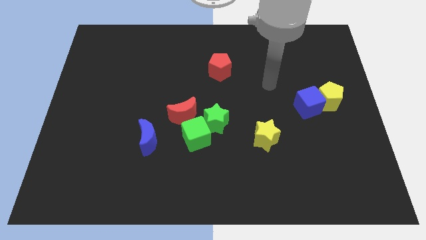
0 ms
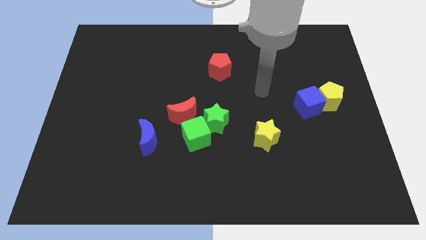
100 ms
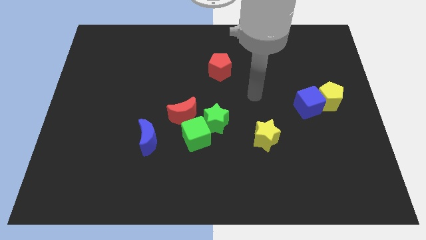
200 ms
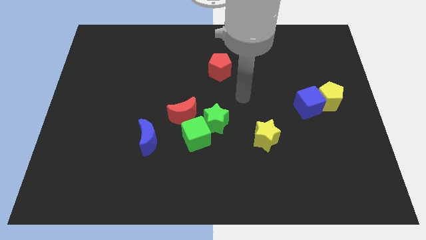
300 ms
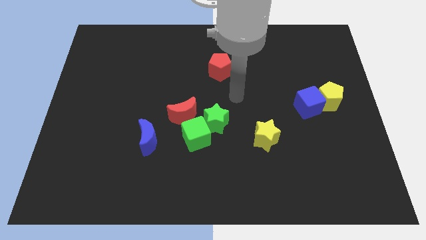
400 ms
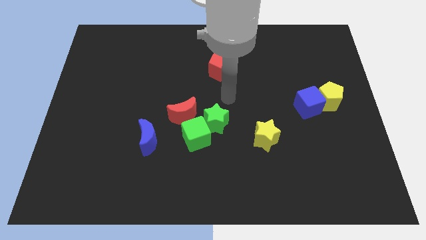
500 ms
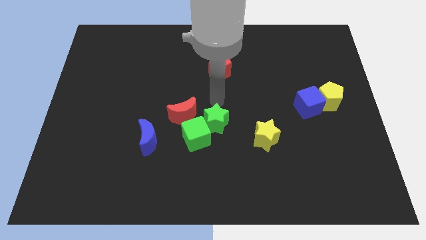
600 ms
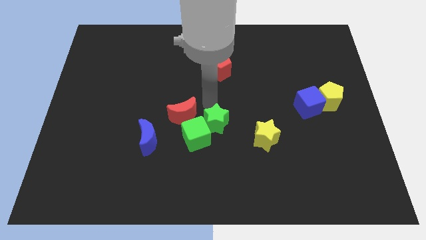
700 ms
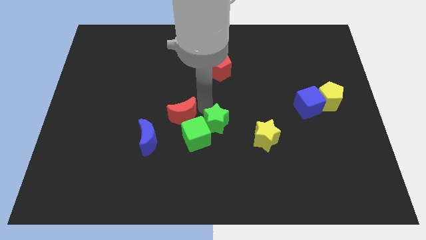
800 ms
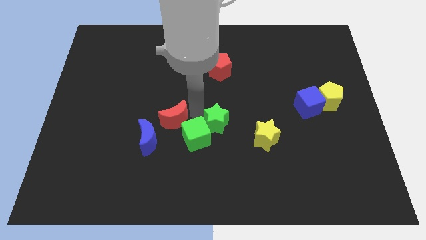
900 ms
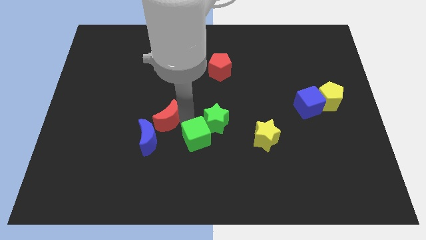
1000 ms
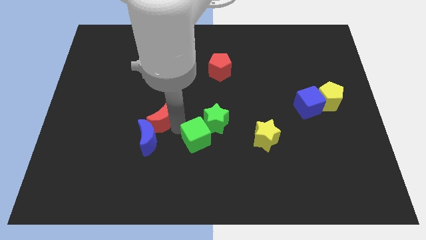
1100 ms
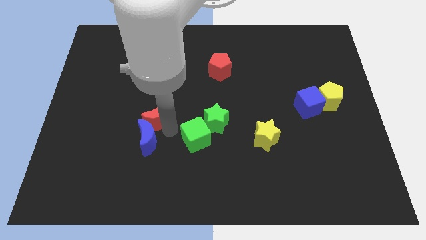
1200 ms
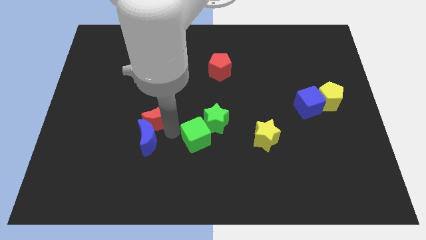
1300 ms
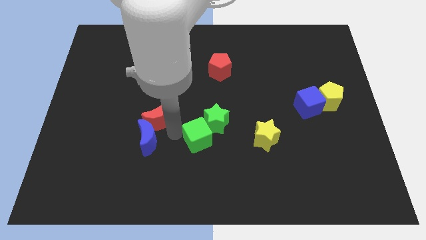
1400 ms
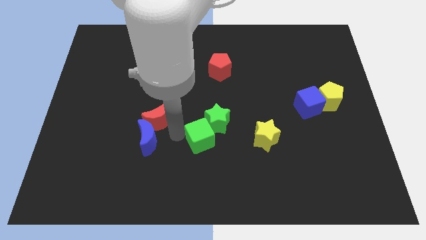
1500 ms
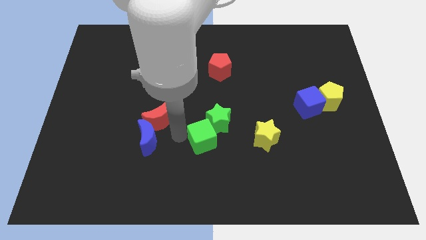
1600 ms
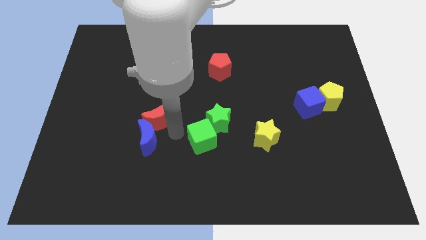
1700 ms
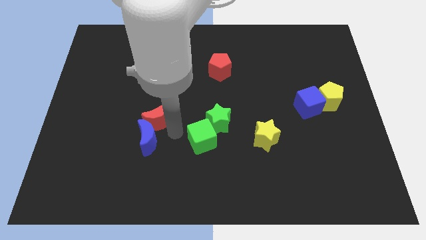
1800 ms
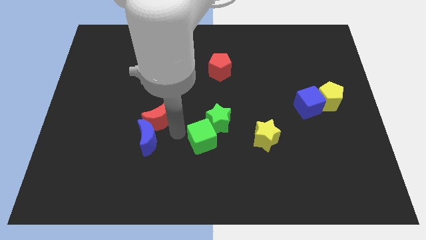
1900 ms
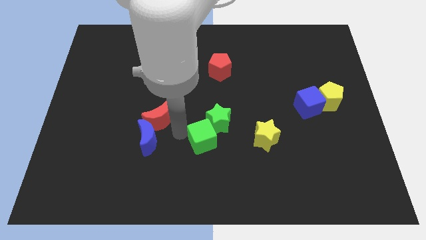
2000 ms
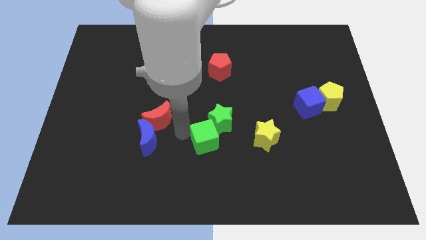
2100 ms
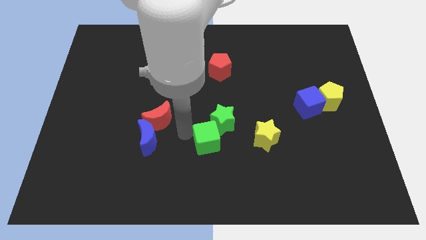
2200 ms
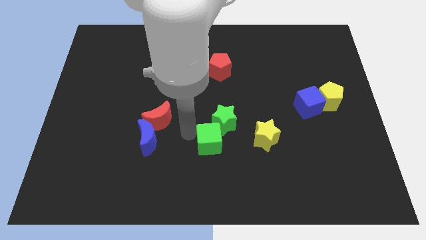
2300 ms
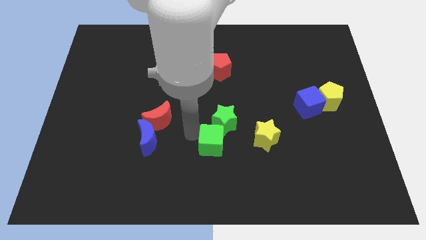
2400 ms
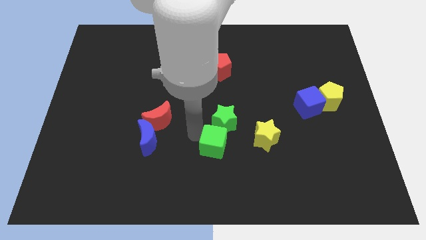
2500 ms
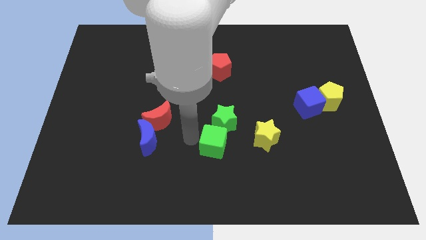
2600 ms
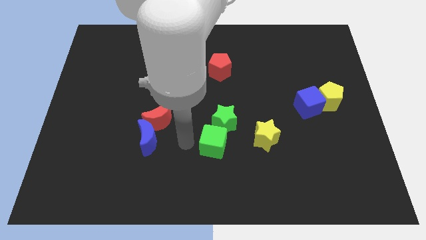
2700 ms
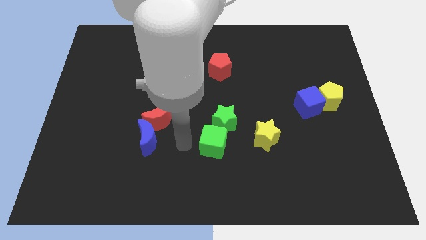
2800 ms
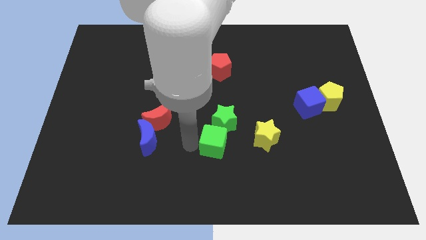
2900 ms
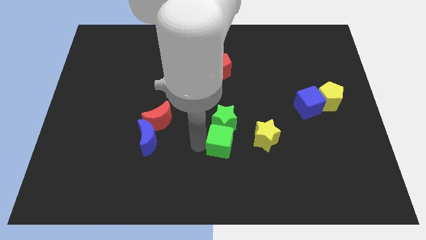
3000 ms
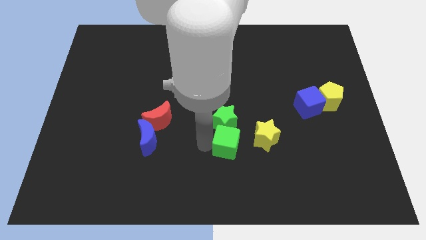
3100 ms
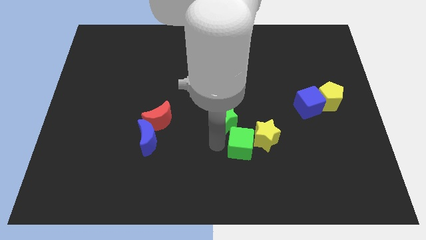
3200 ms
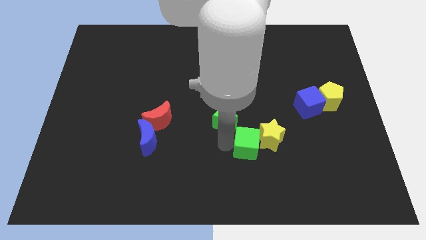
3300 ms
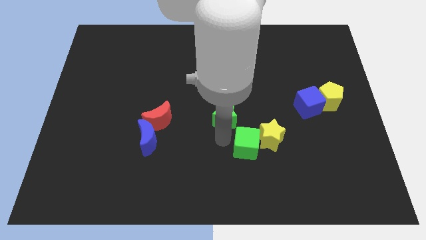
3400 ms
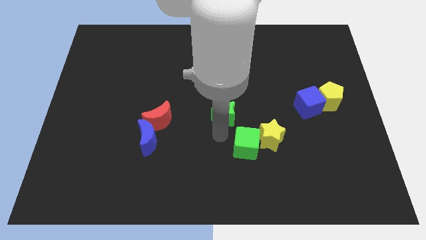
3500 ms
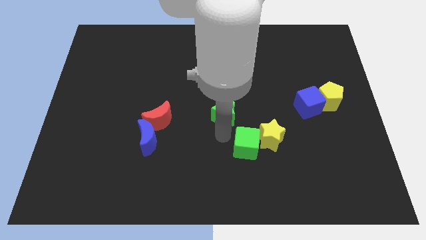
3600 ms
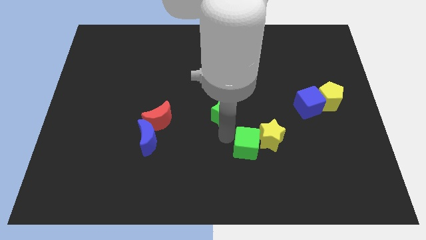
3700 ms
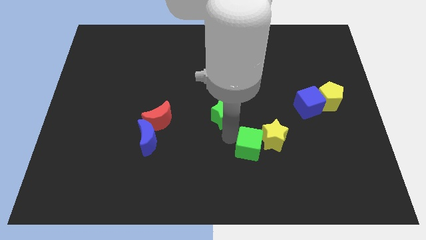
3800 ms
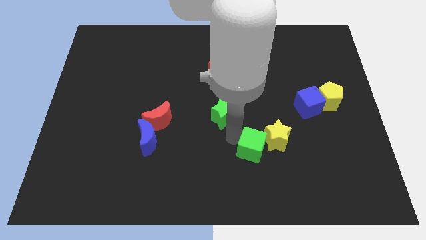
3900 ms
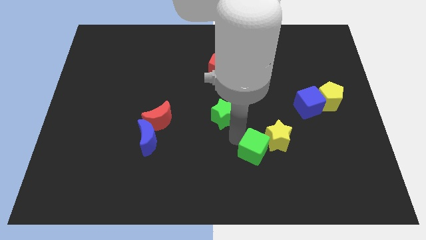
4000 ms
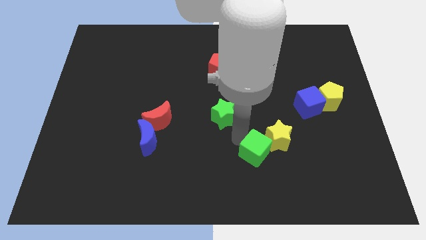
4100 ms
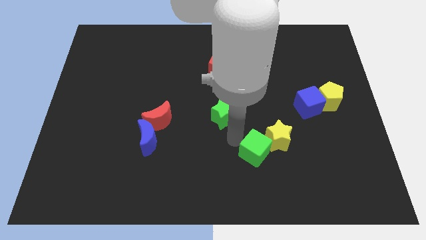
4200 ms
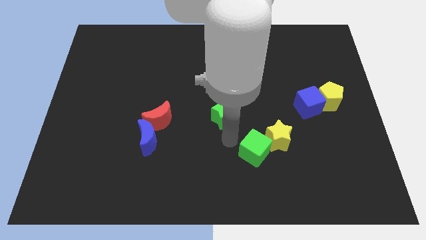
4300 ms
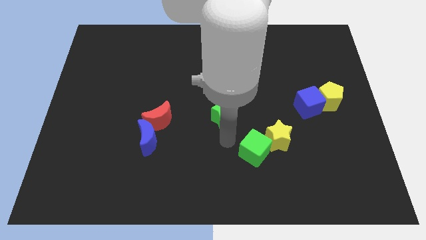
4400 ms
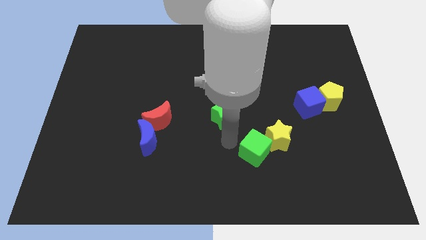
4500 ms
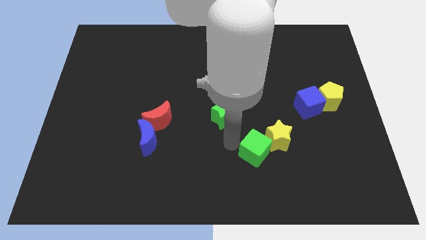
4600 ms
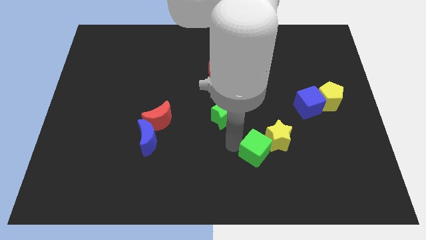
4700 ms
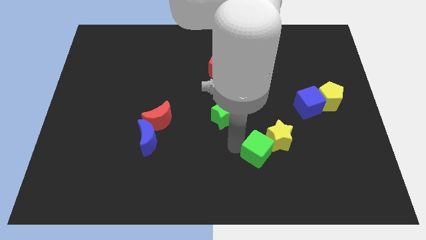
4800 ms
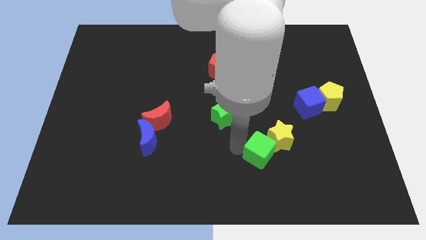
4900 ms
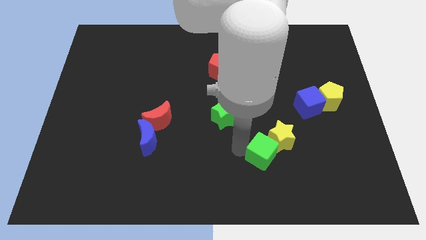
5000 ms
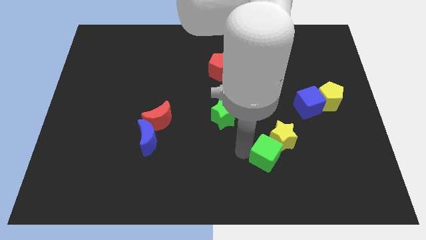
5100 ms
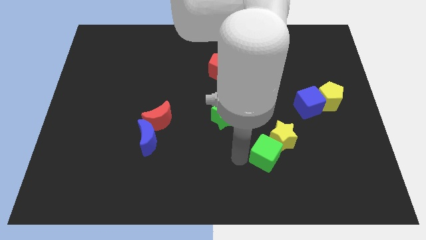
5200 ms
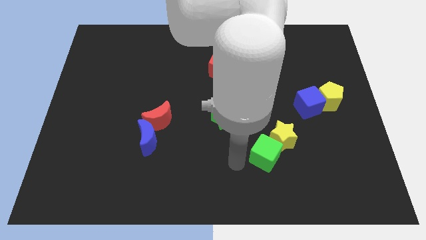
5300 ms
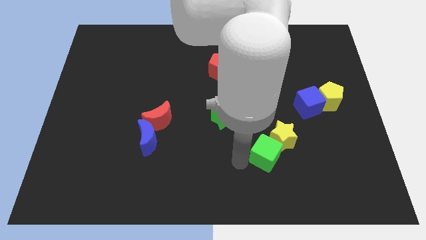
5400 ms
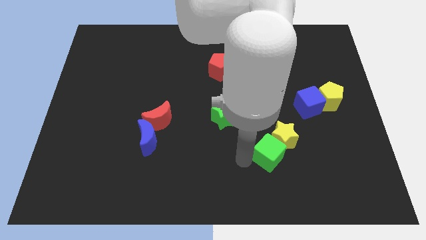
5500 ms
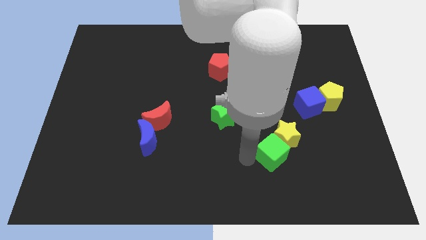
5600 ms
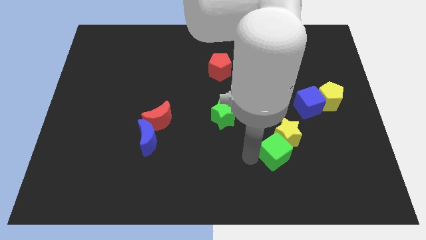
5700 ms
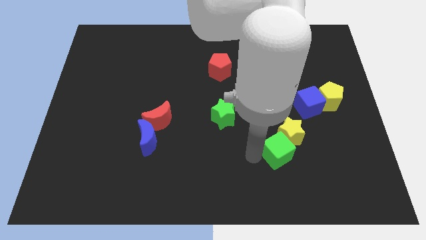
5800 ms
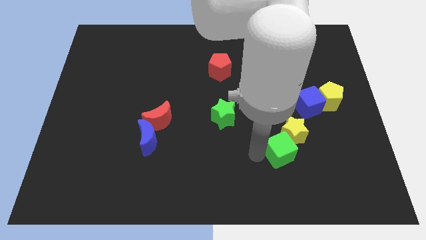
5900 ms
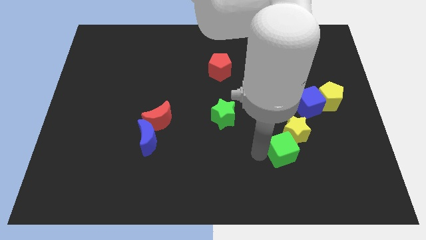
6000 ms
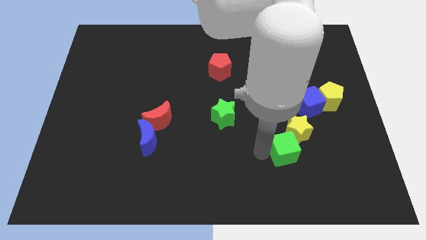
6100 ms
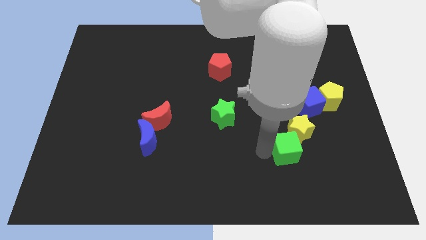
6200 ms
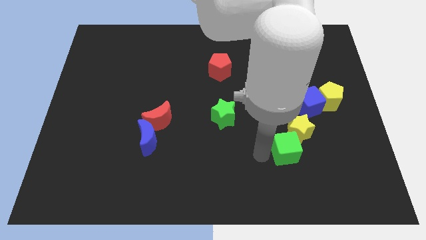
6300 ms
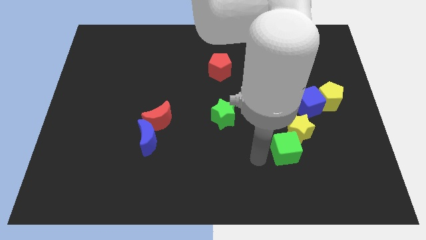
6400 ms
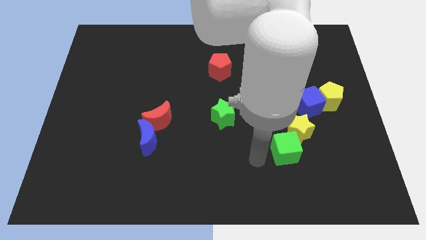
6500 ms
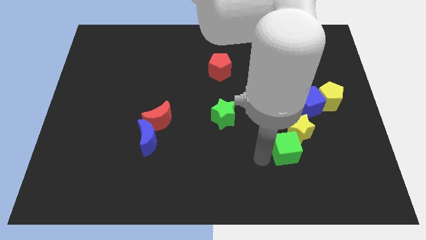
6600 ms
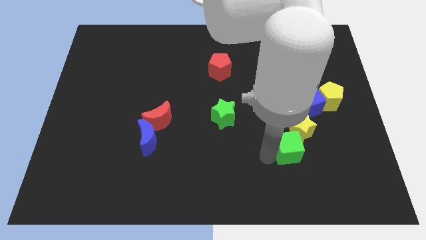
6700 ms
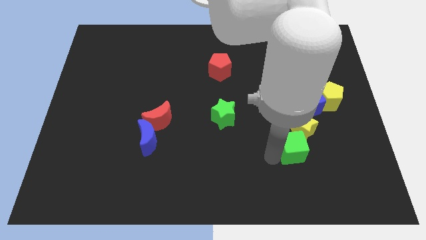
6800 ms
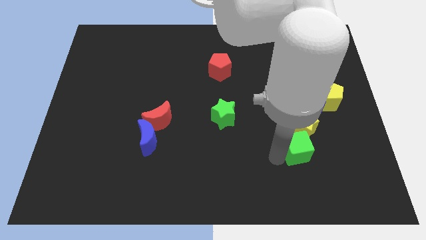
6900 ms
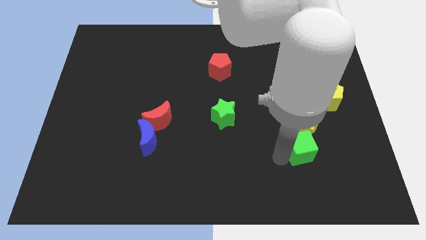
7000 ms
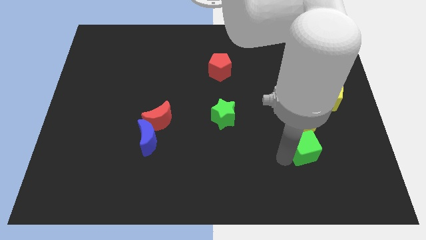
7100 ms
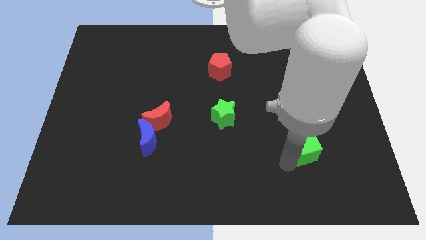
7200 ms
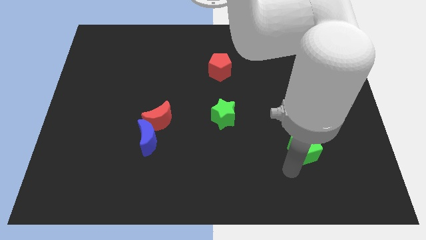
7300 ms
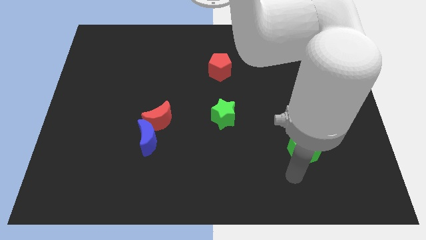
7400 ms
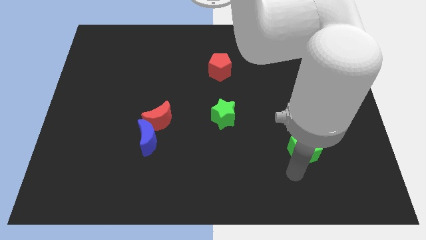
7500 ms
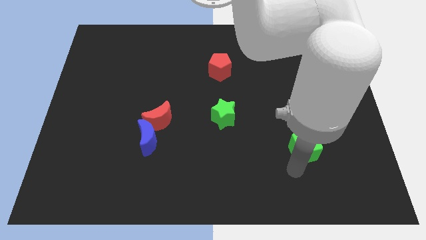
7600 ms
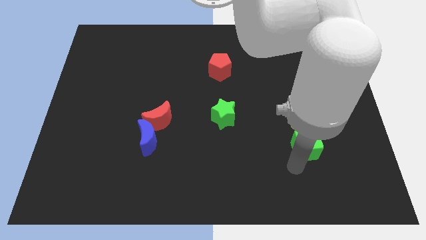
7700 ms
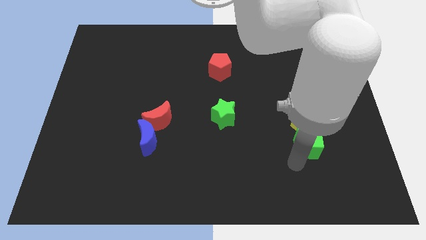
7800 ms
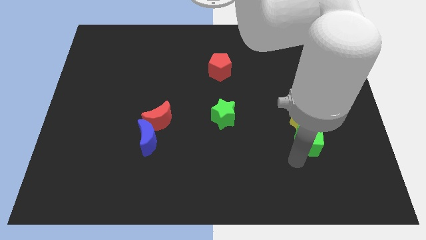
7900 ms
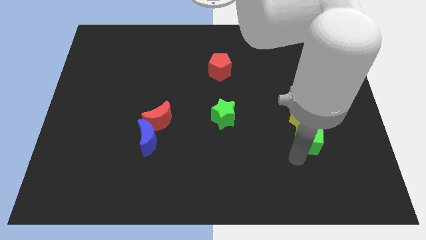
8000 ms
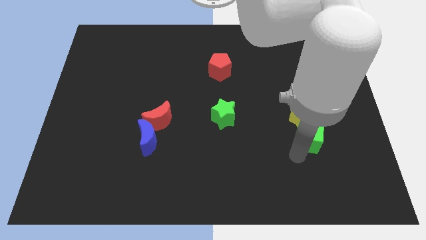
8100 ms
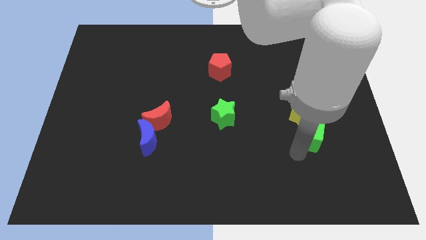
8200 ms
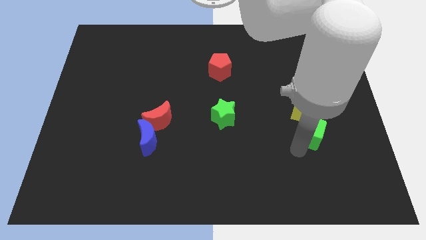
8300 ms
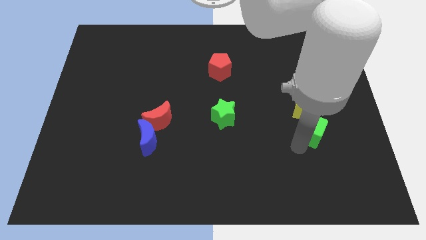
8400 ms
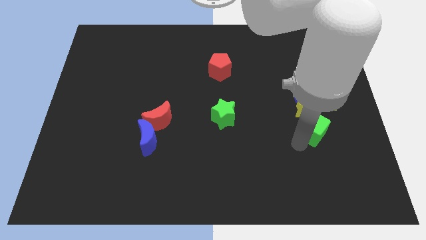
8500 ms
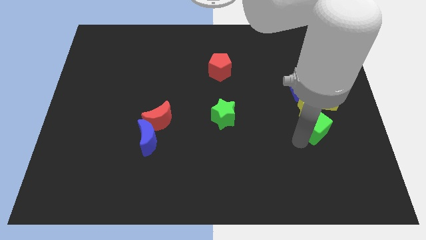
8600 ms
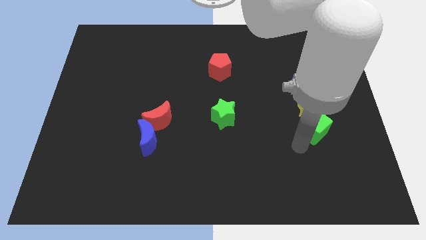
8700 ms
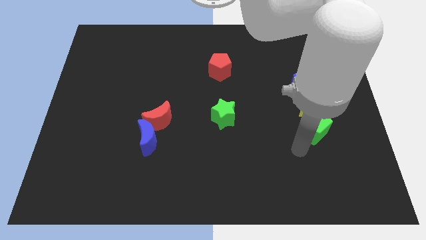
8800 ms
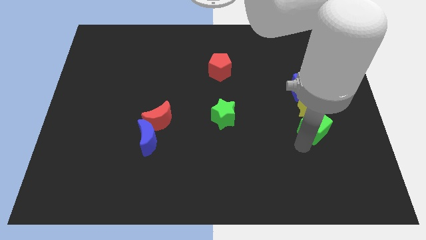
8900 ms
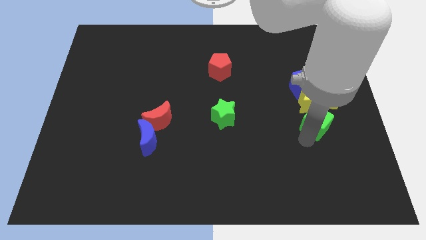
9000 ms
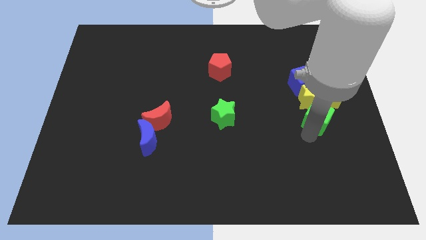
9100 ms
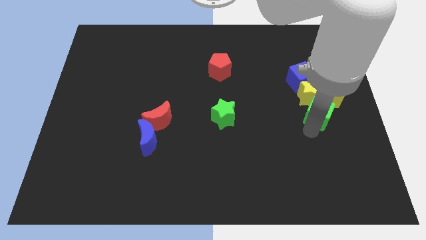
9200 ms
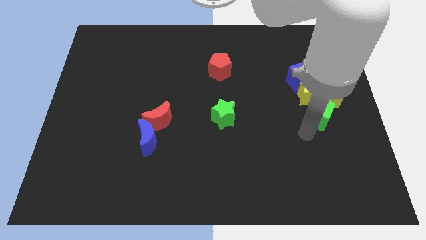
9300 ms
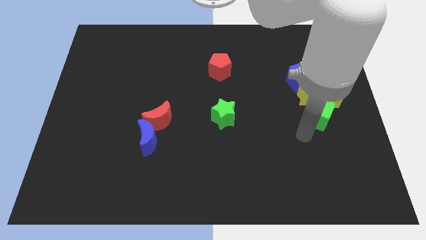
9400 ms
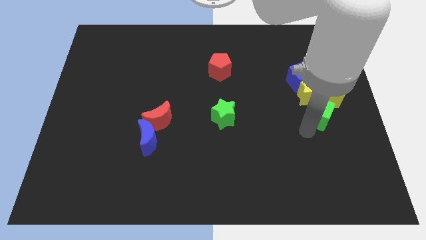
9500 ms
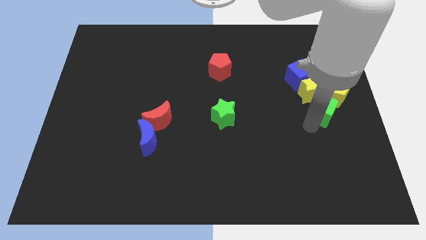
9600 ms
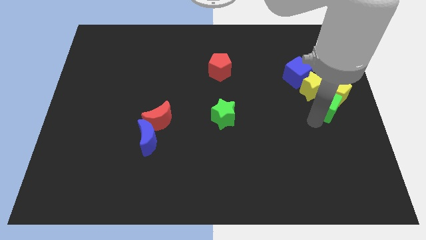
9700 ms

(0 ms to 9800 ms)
put the green cube towards the yellow pentagon
